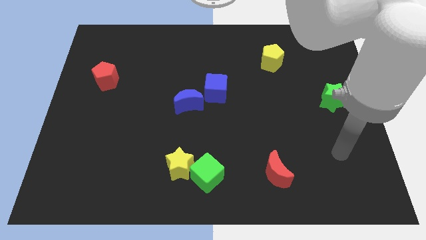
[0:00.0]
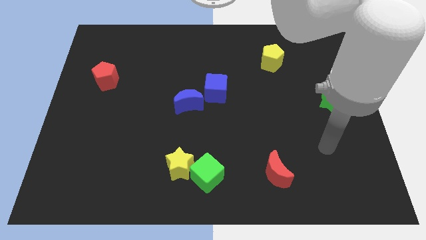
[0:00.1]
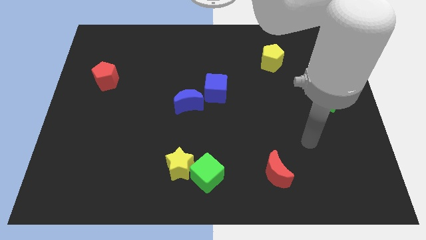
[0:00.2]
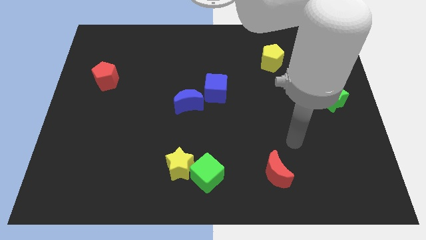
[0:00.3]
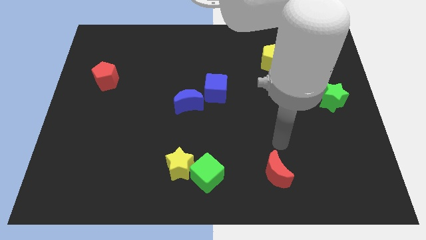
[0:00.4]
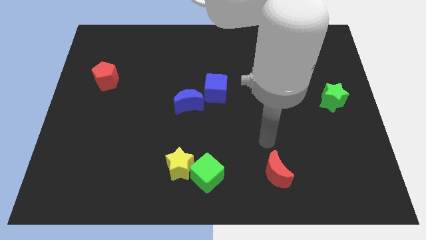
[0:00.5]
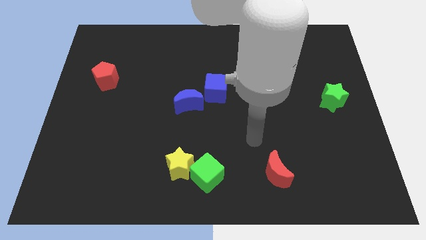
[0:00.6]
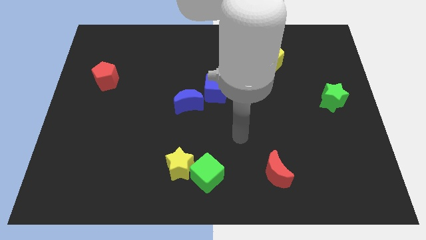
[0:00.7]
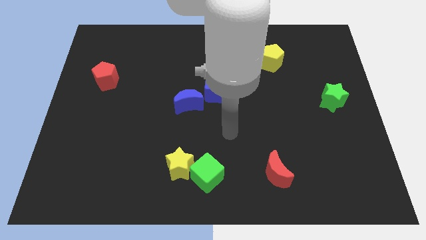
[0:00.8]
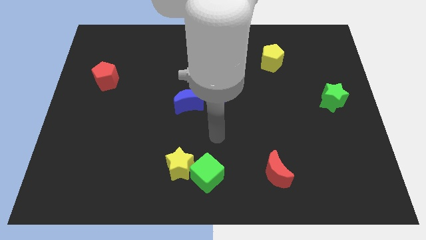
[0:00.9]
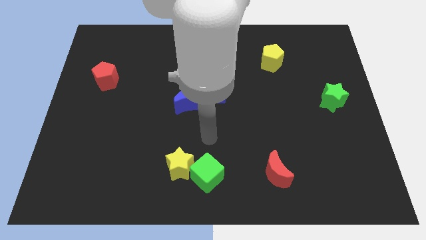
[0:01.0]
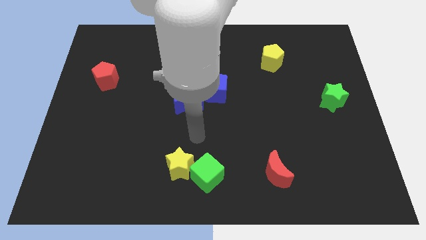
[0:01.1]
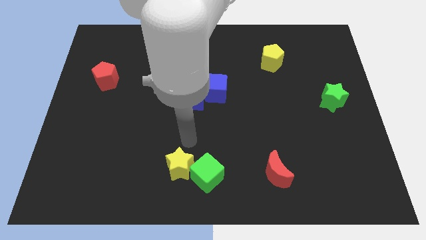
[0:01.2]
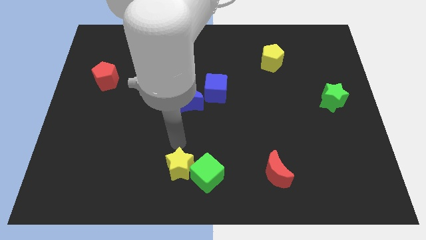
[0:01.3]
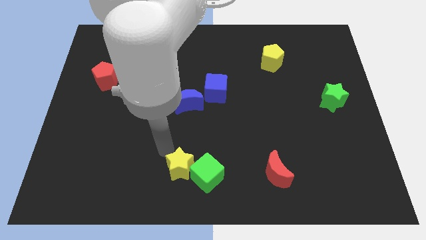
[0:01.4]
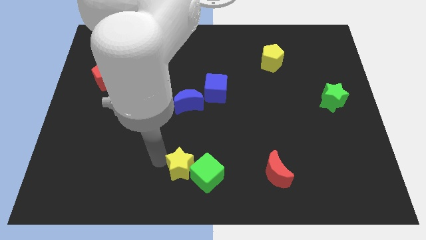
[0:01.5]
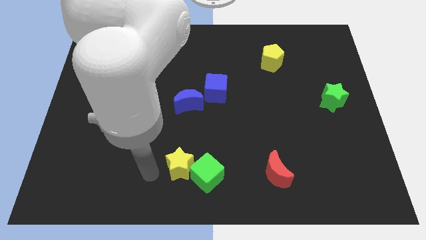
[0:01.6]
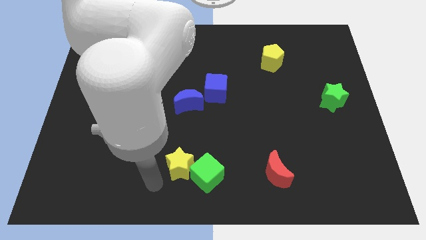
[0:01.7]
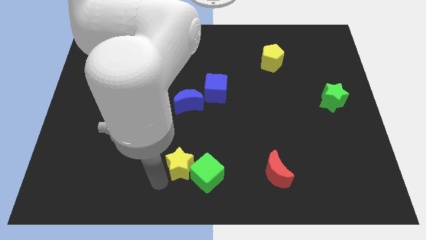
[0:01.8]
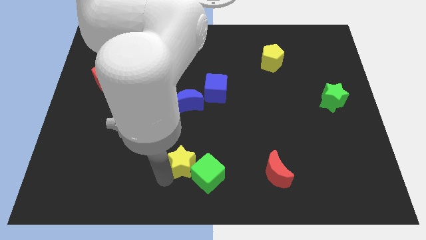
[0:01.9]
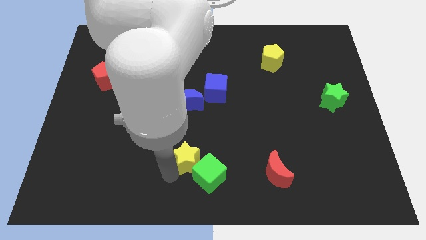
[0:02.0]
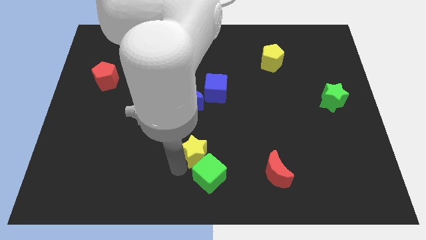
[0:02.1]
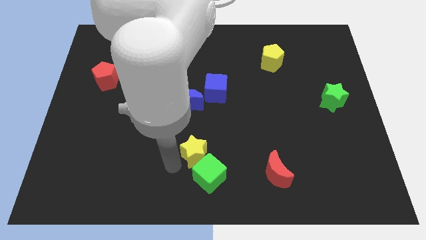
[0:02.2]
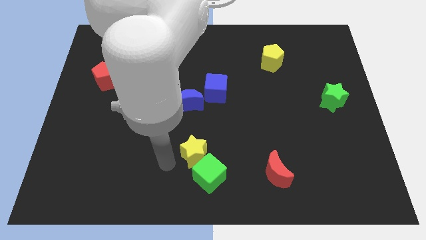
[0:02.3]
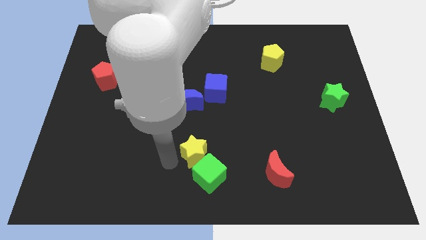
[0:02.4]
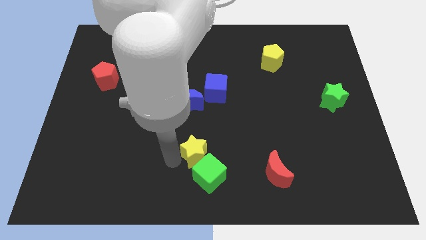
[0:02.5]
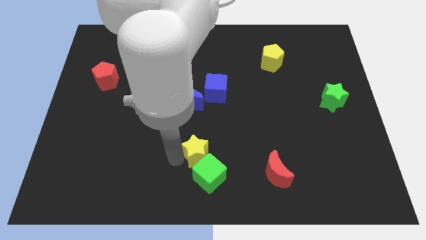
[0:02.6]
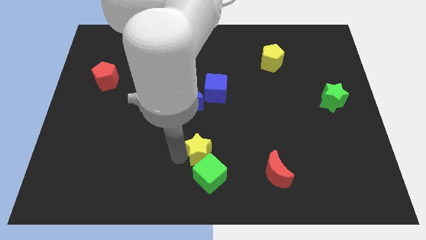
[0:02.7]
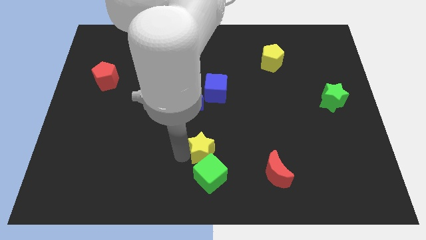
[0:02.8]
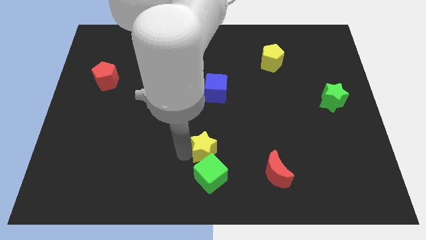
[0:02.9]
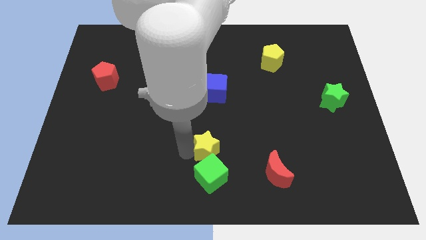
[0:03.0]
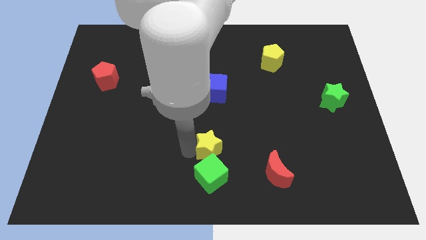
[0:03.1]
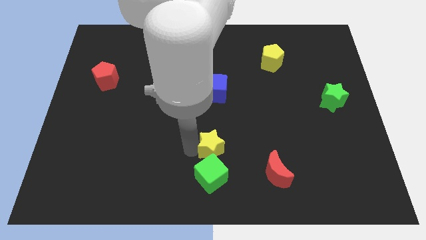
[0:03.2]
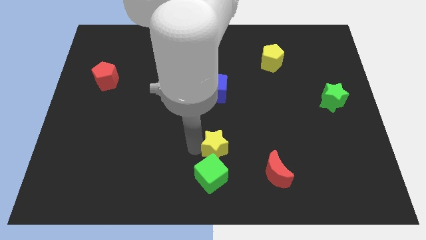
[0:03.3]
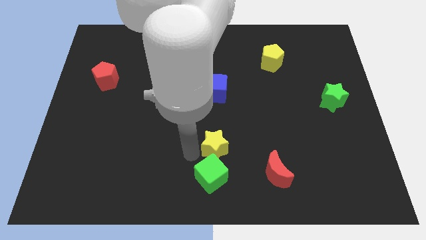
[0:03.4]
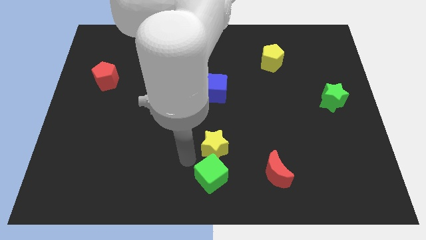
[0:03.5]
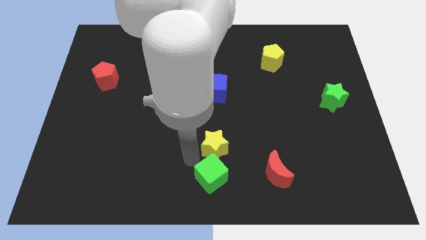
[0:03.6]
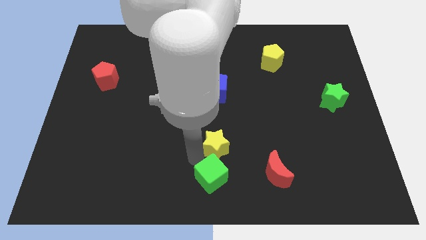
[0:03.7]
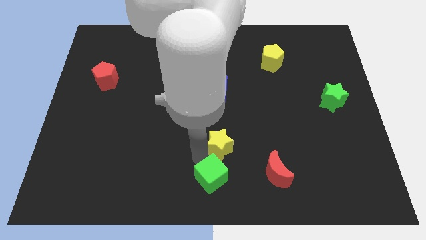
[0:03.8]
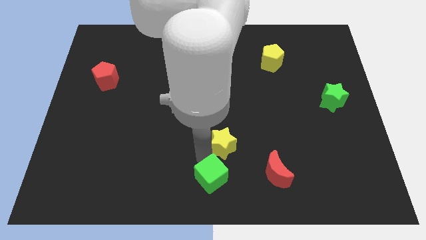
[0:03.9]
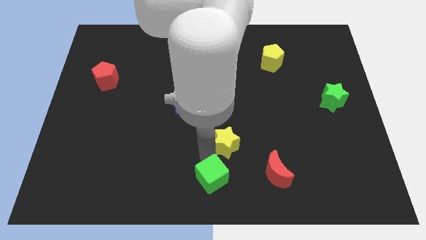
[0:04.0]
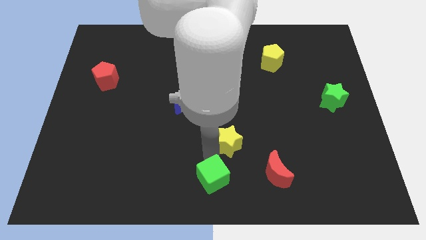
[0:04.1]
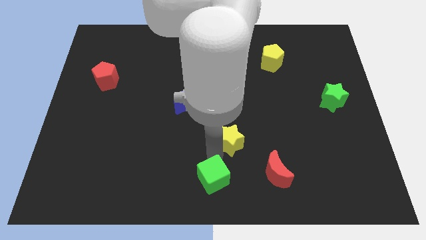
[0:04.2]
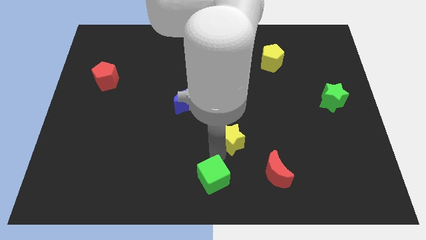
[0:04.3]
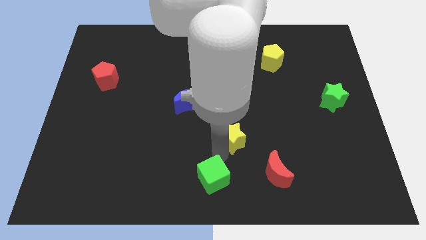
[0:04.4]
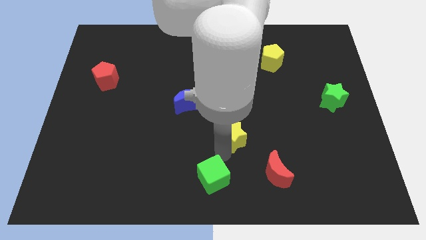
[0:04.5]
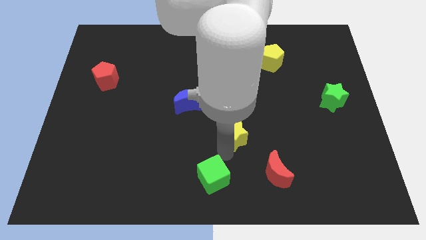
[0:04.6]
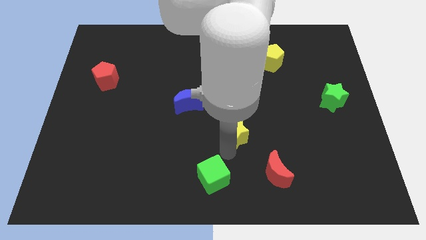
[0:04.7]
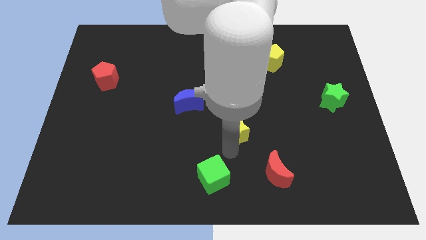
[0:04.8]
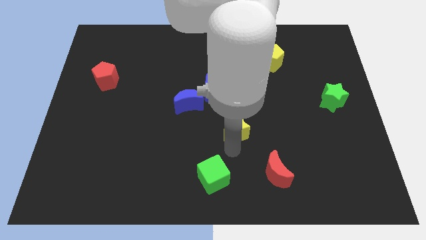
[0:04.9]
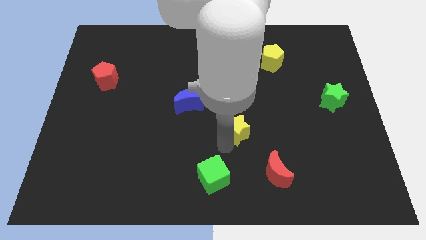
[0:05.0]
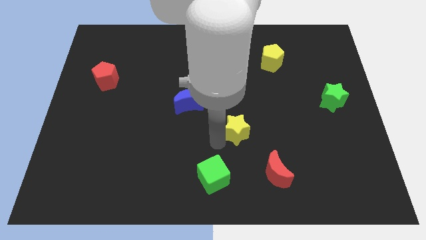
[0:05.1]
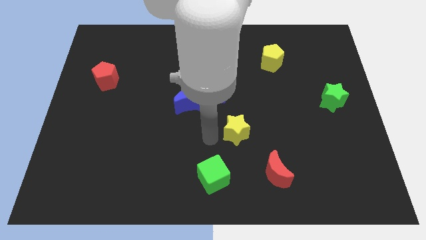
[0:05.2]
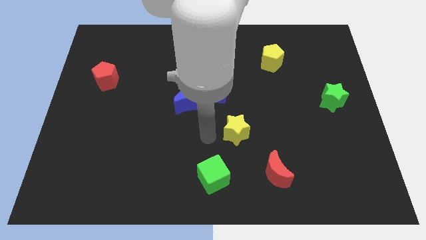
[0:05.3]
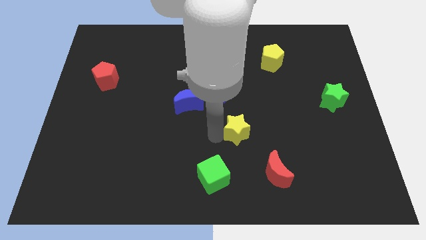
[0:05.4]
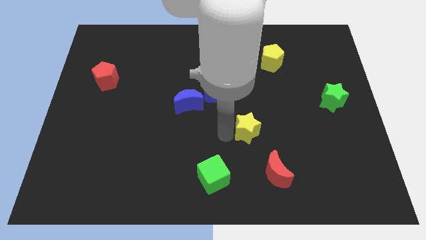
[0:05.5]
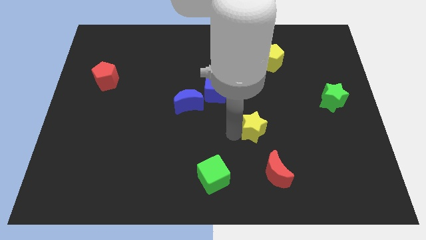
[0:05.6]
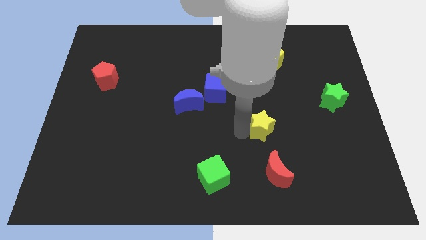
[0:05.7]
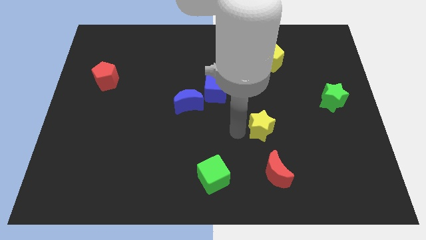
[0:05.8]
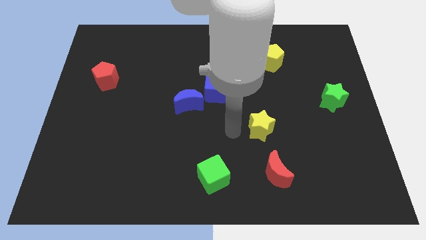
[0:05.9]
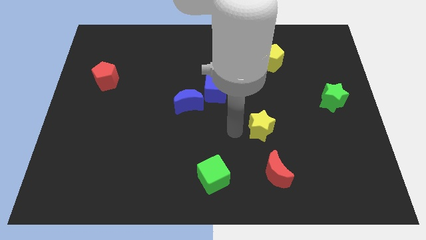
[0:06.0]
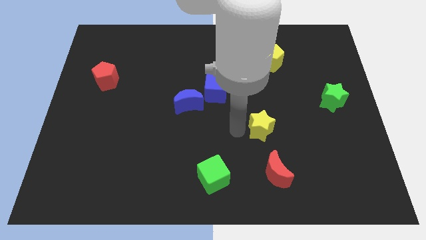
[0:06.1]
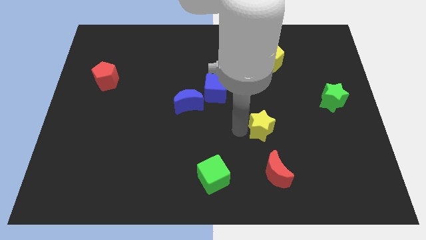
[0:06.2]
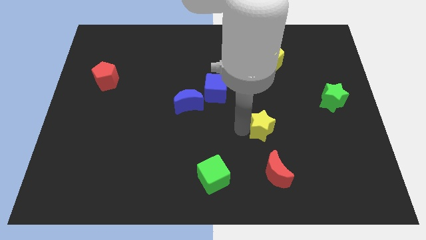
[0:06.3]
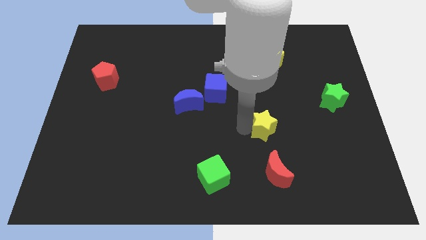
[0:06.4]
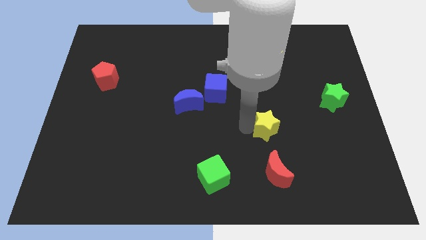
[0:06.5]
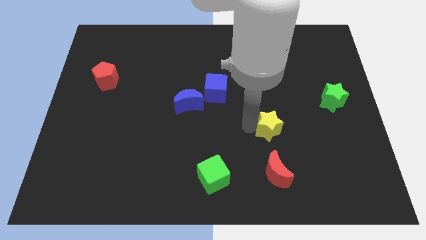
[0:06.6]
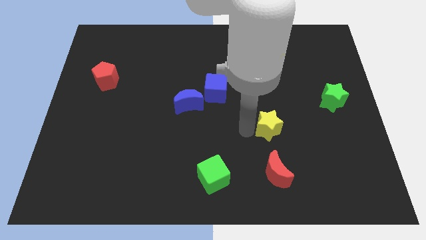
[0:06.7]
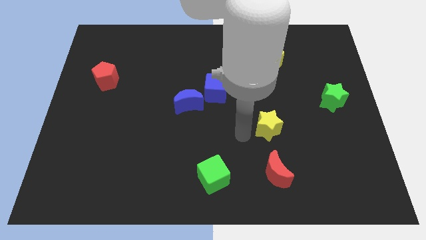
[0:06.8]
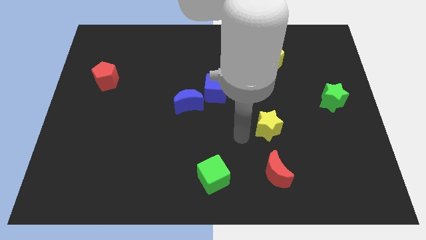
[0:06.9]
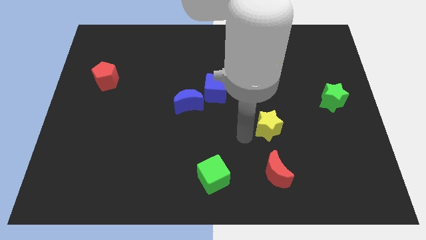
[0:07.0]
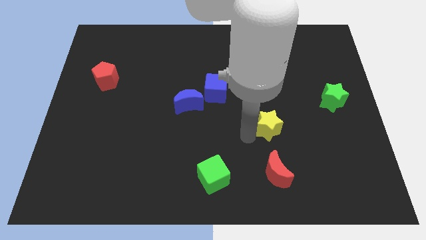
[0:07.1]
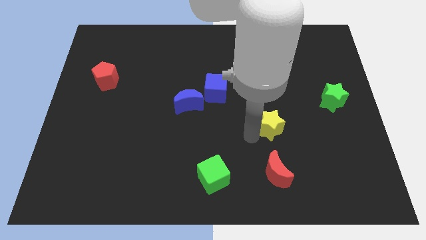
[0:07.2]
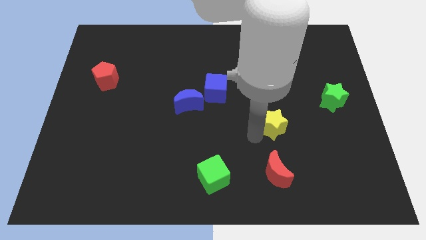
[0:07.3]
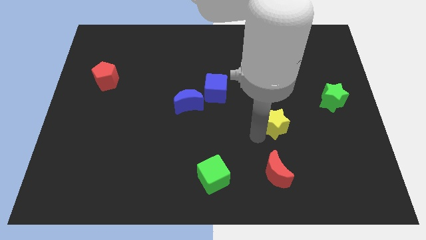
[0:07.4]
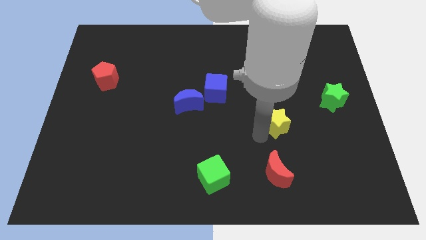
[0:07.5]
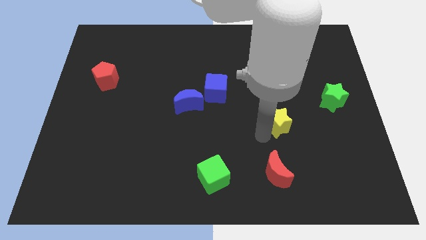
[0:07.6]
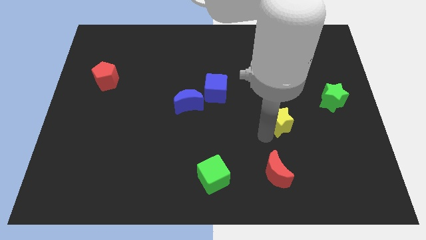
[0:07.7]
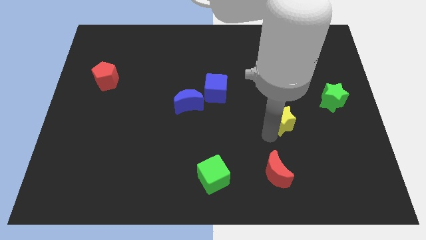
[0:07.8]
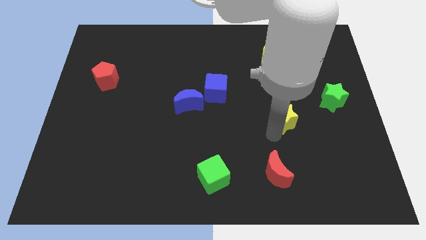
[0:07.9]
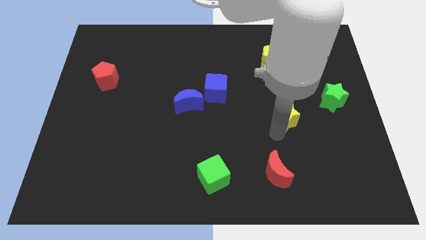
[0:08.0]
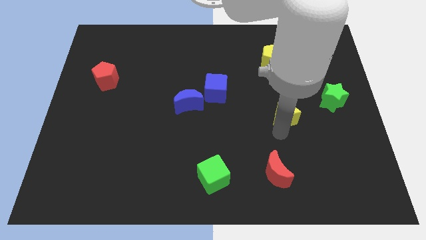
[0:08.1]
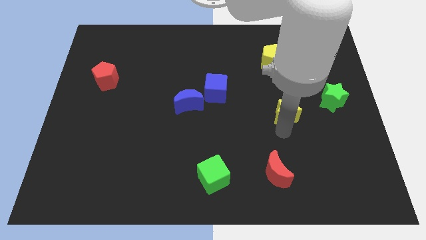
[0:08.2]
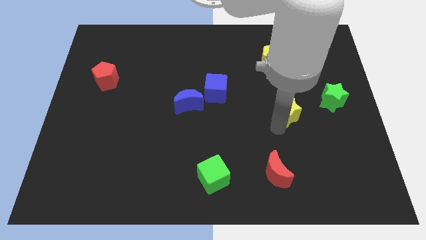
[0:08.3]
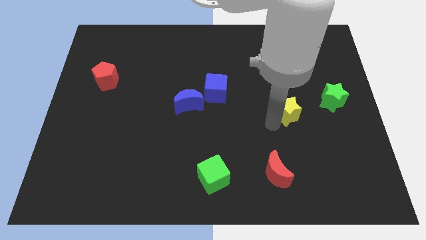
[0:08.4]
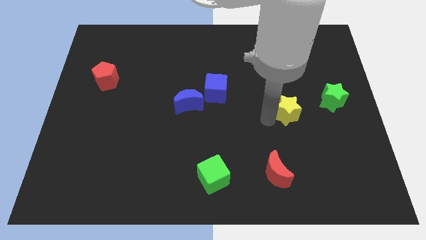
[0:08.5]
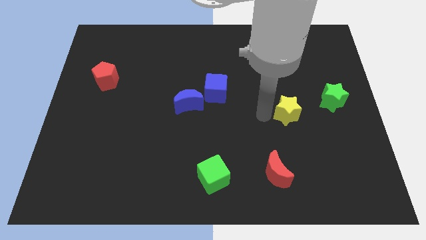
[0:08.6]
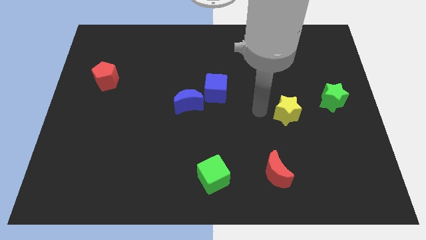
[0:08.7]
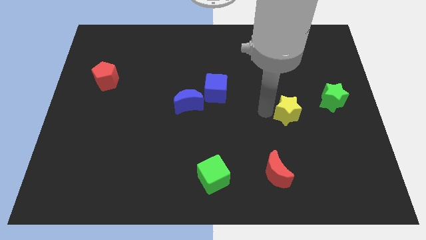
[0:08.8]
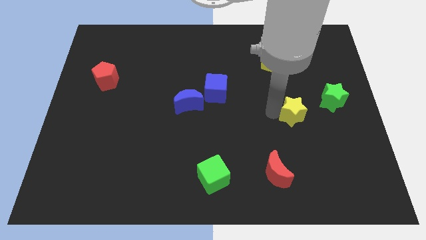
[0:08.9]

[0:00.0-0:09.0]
move the yellow star to the bottom left of the green star
